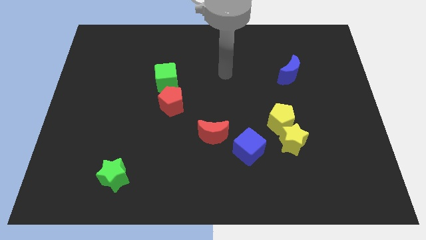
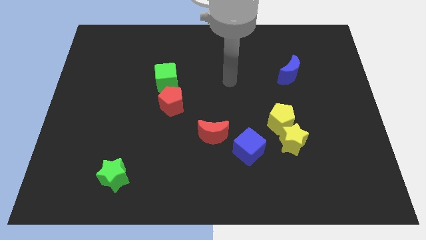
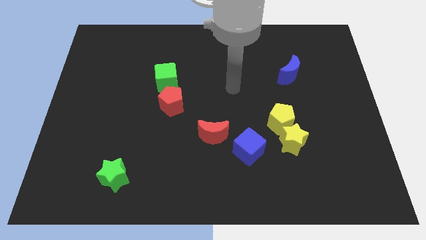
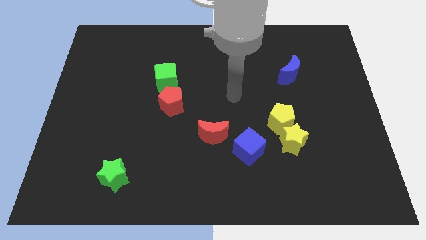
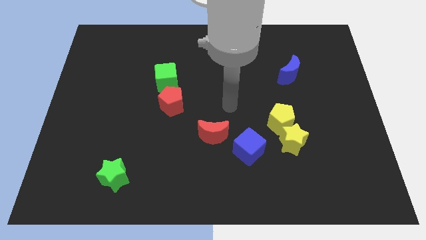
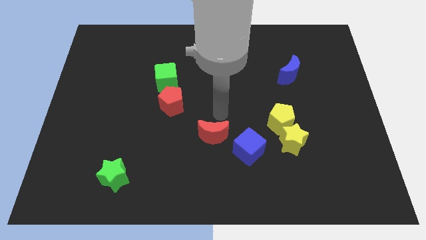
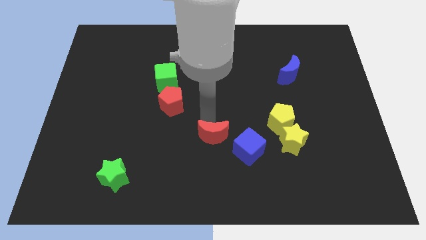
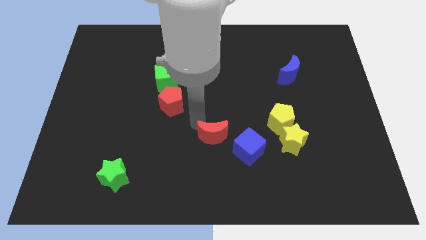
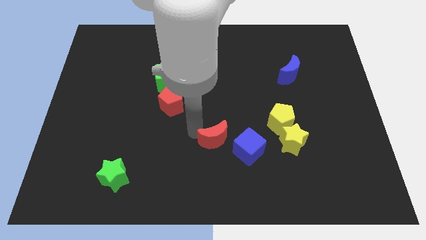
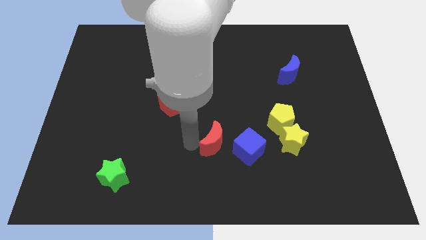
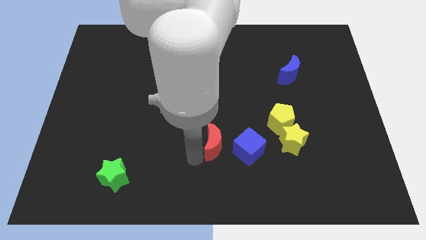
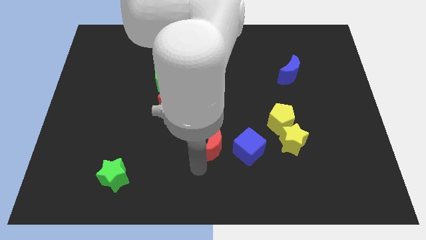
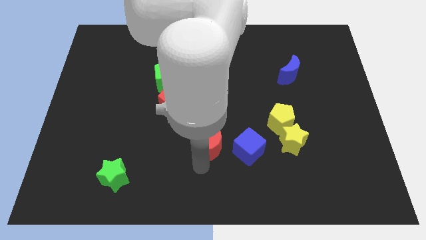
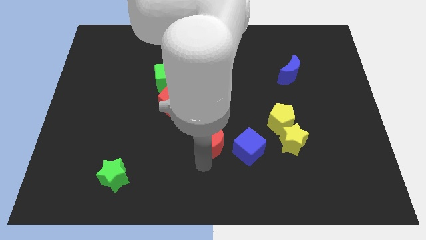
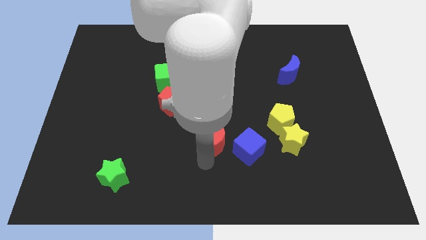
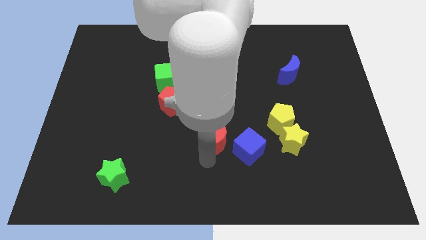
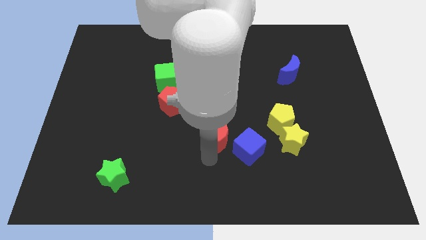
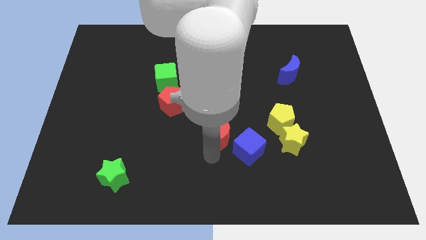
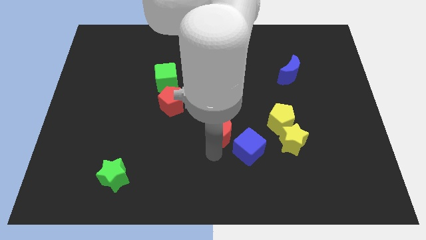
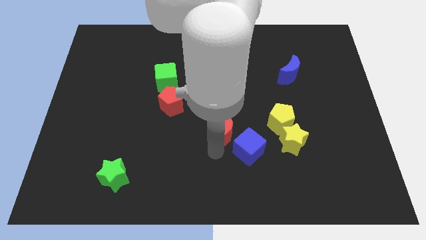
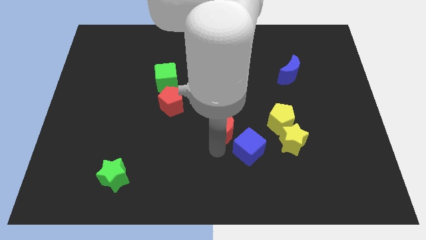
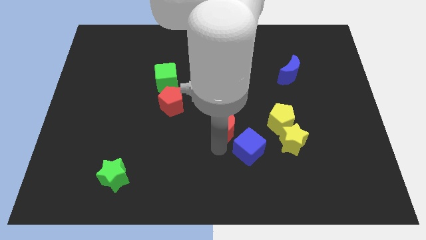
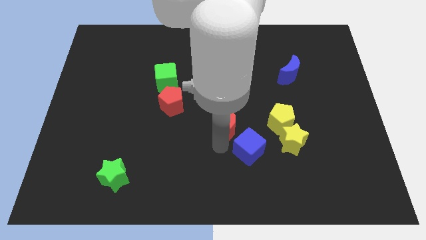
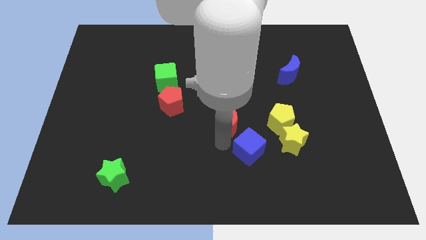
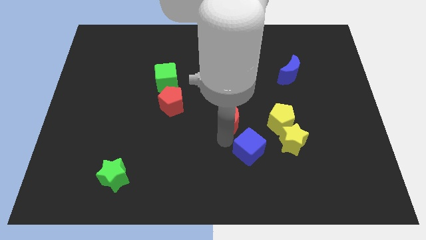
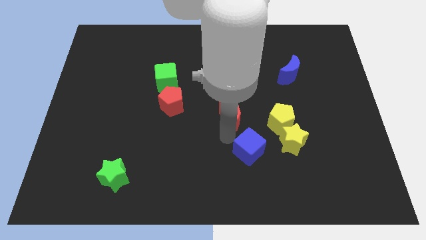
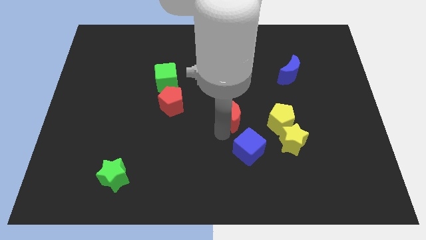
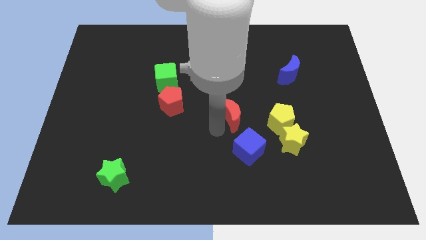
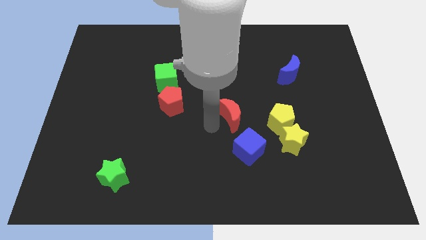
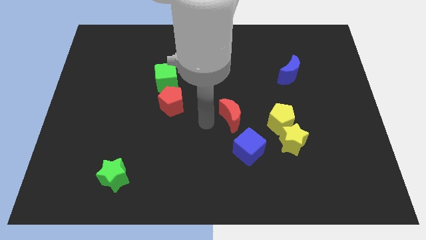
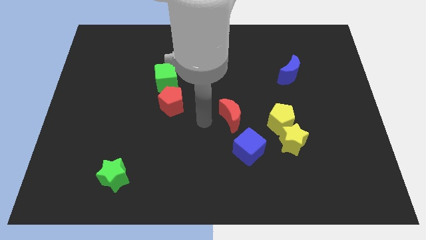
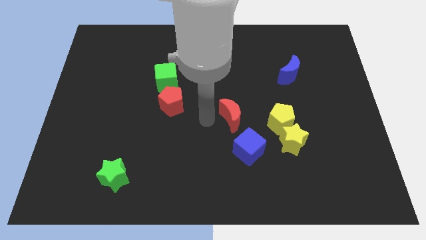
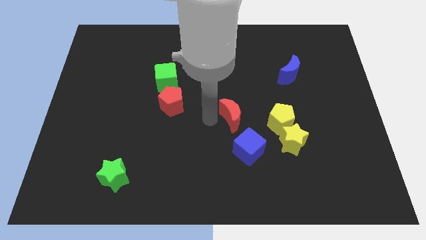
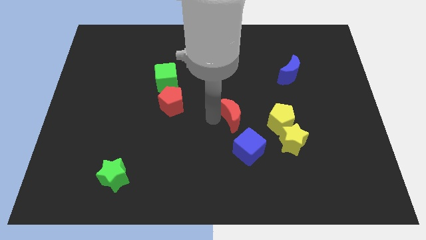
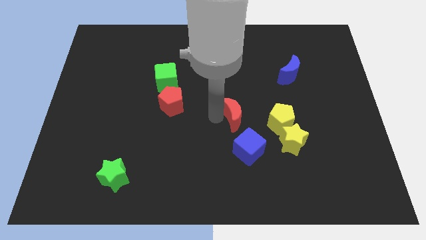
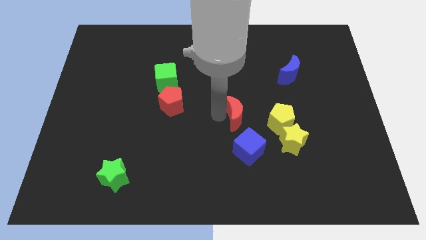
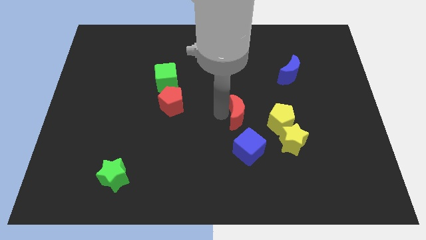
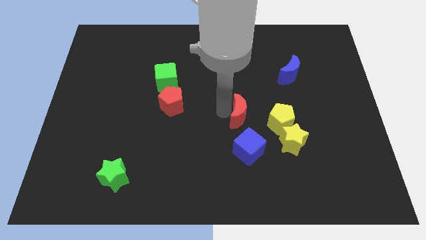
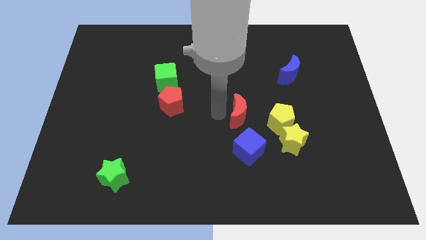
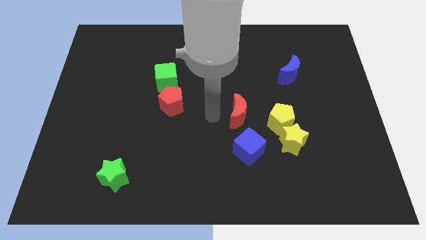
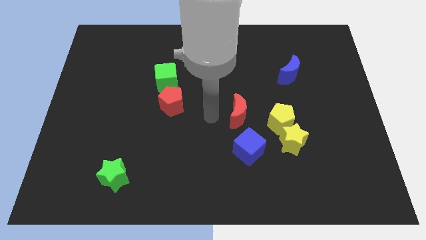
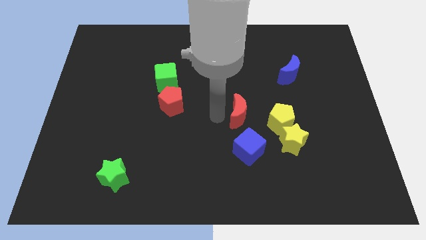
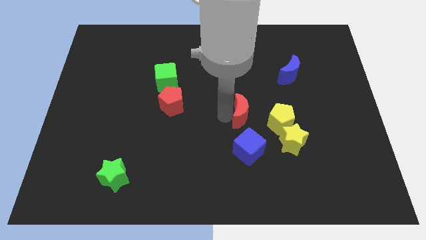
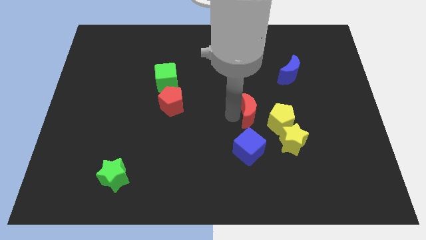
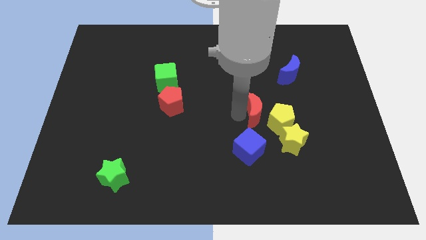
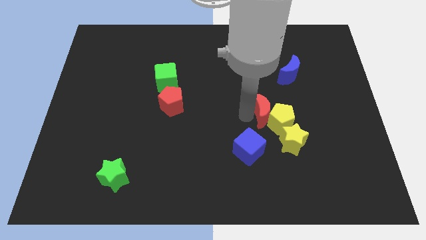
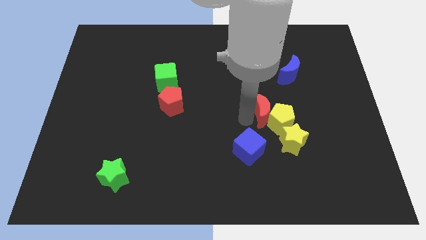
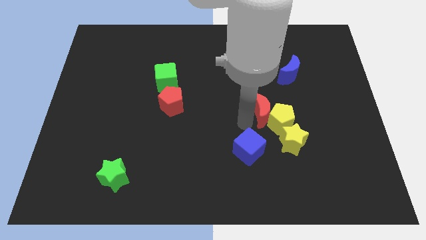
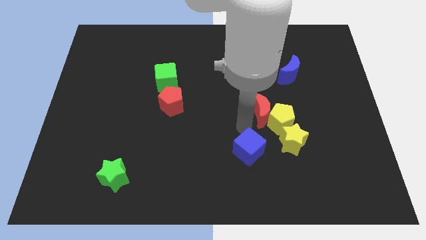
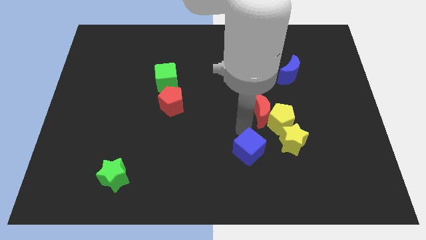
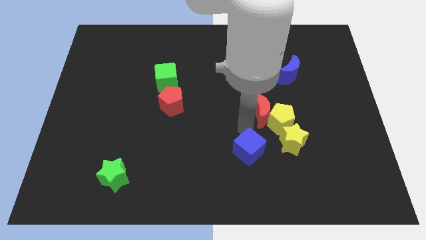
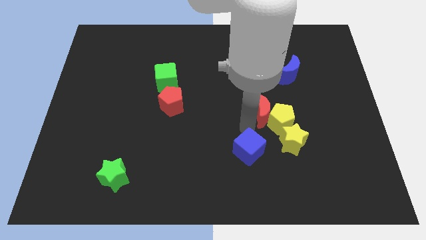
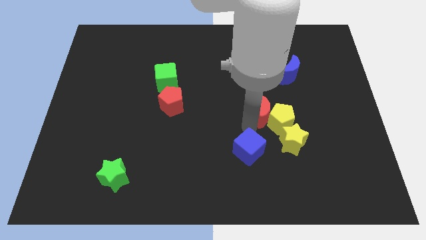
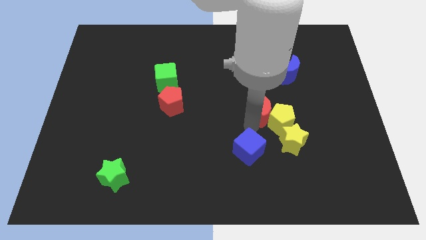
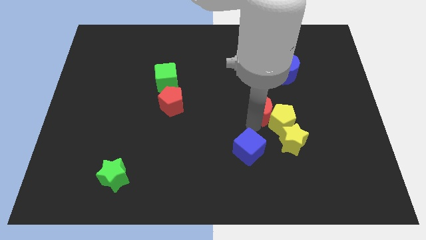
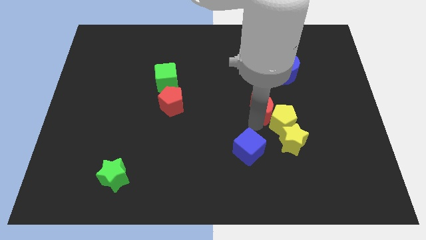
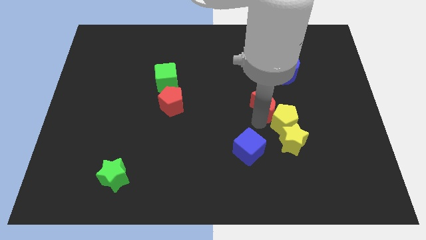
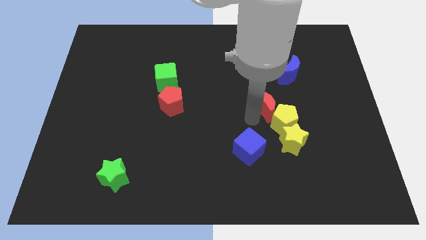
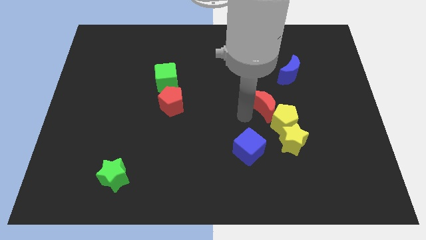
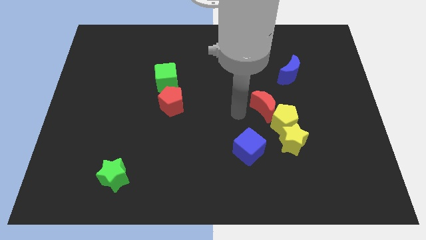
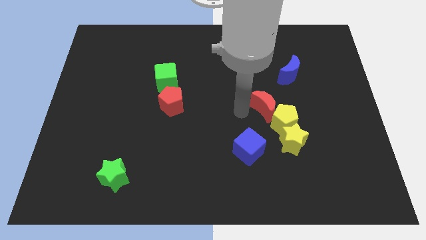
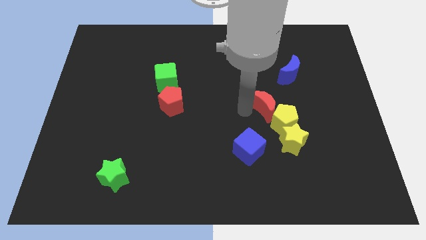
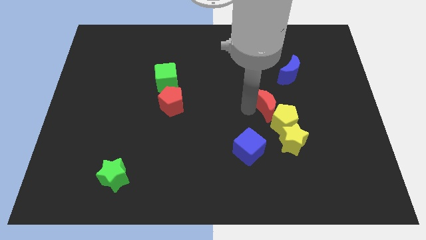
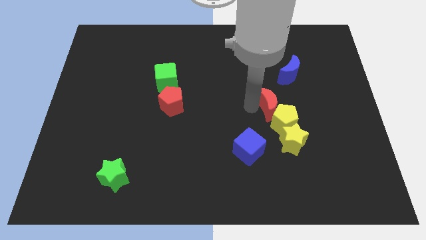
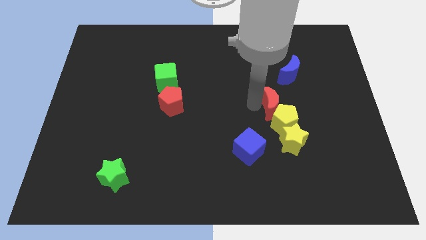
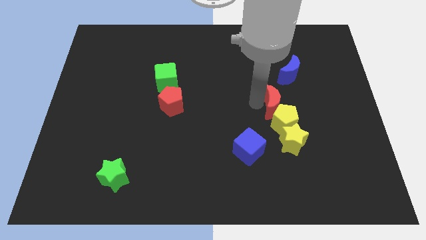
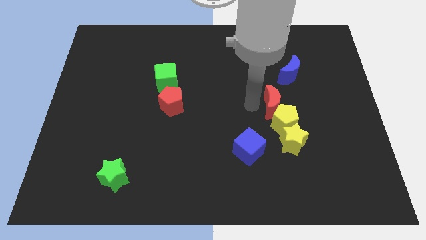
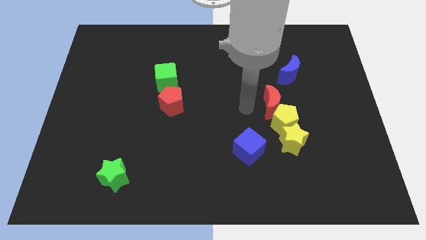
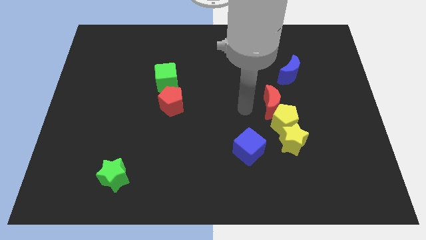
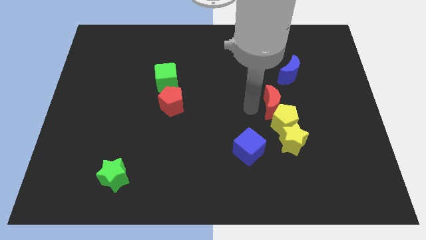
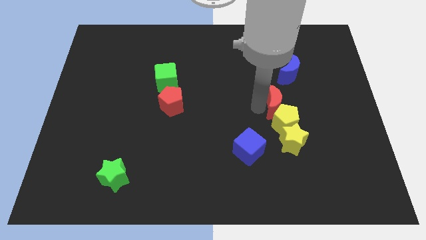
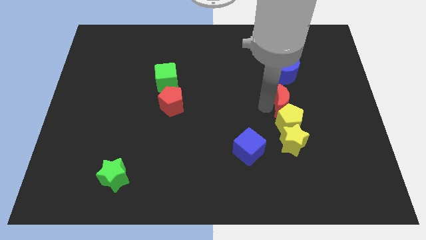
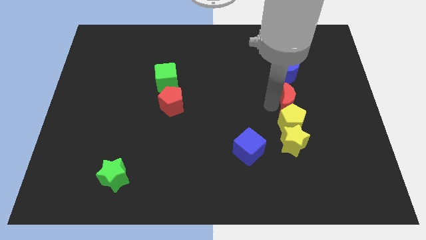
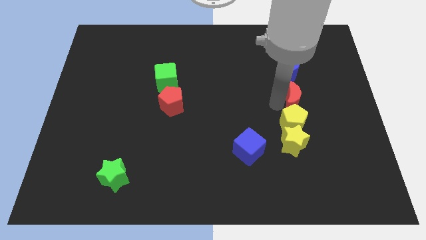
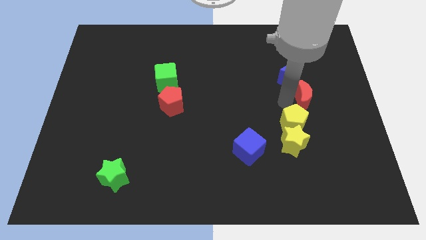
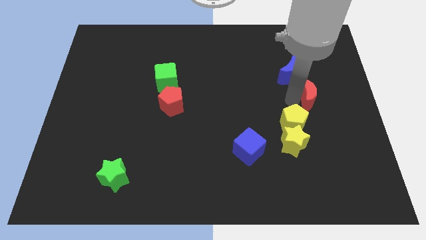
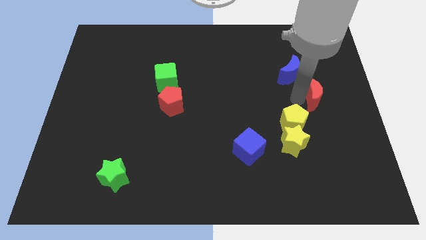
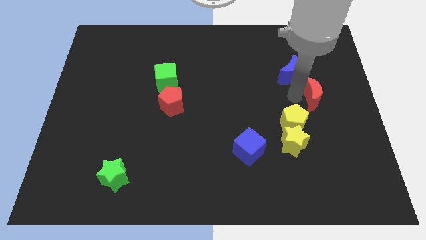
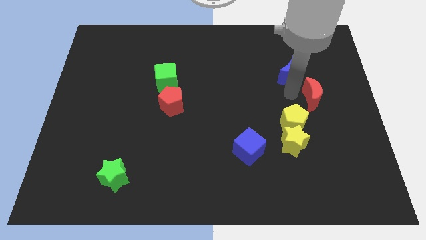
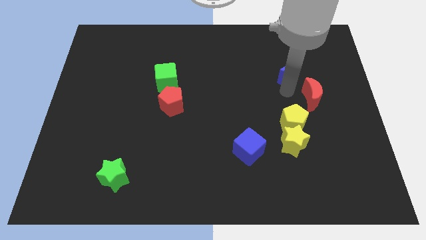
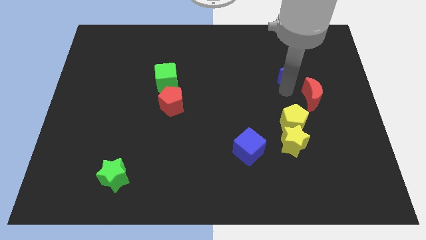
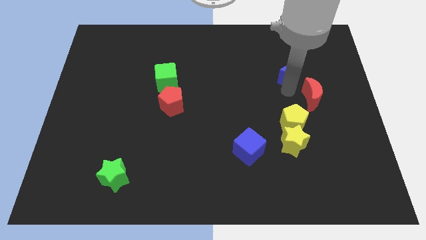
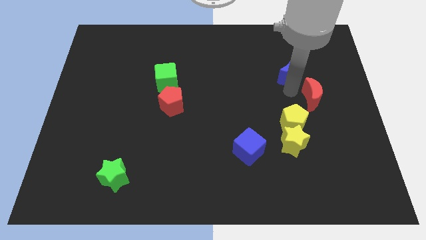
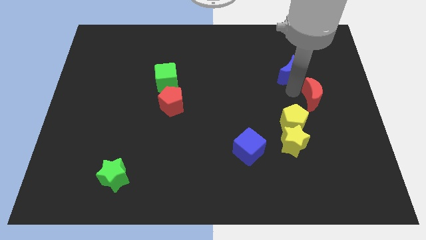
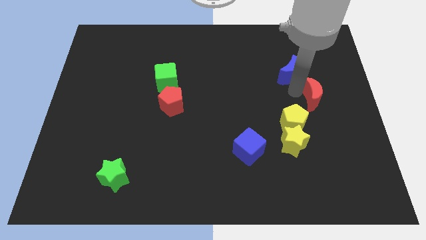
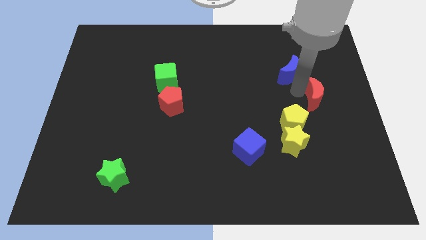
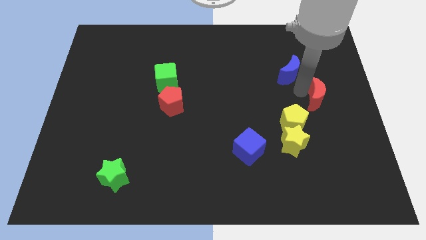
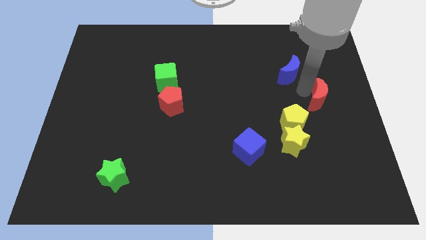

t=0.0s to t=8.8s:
move the red moon to the right side
